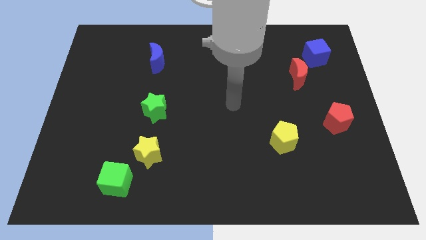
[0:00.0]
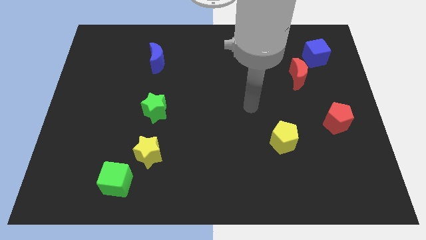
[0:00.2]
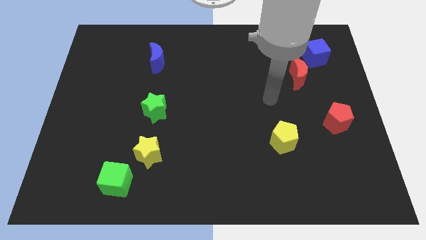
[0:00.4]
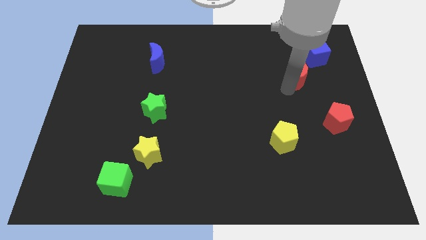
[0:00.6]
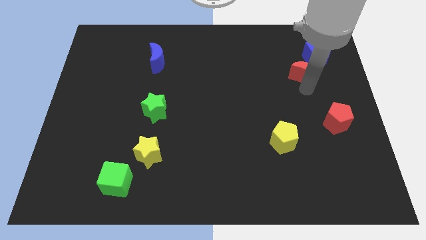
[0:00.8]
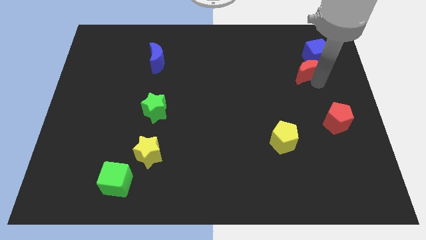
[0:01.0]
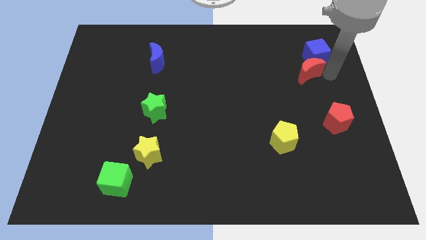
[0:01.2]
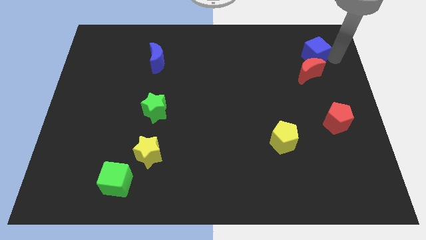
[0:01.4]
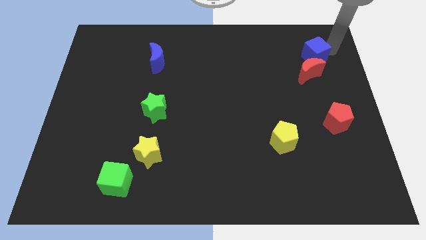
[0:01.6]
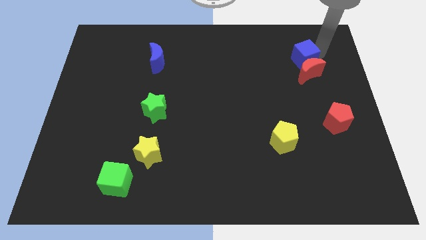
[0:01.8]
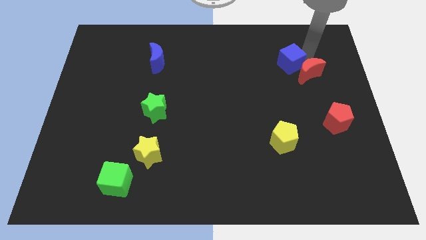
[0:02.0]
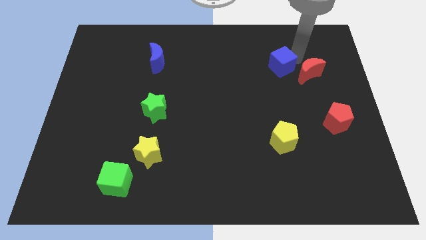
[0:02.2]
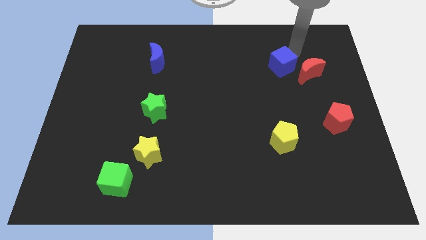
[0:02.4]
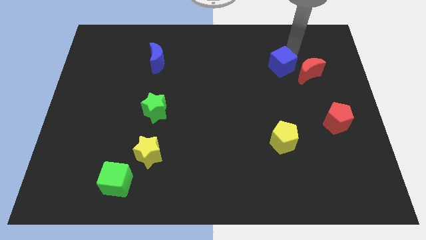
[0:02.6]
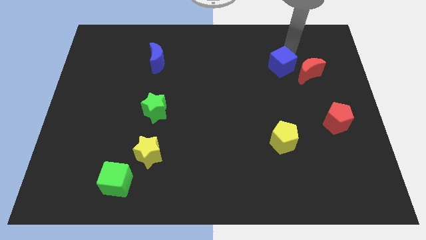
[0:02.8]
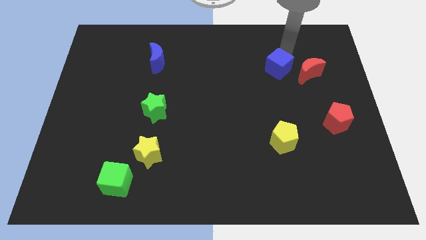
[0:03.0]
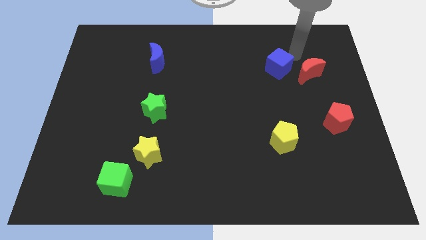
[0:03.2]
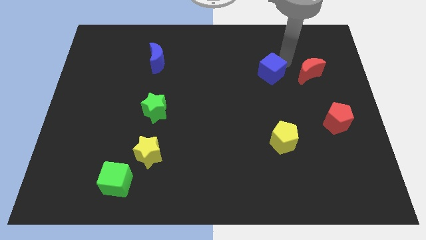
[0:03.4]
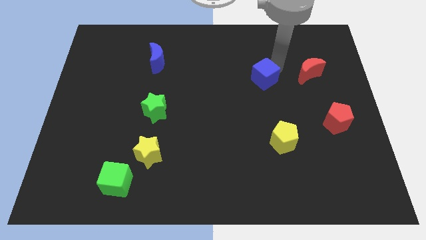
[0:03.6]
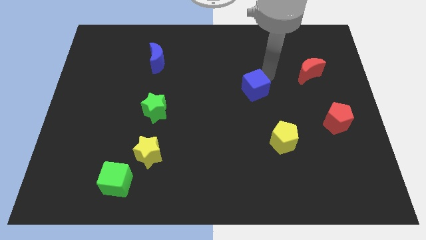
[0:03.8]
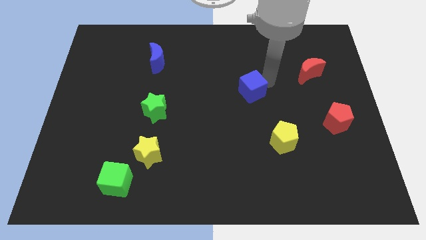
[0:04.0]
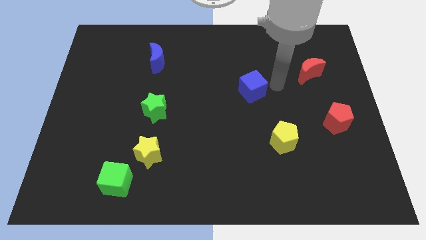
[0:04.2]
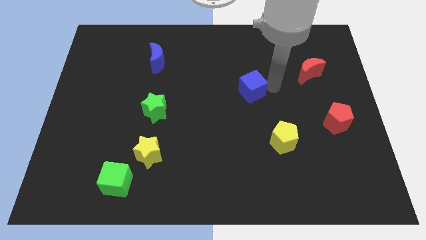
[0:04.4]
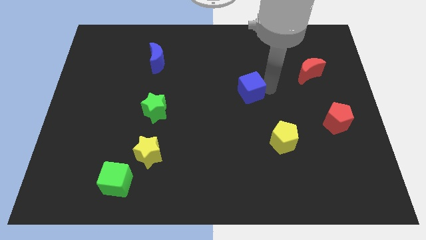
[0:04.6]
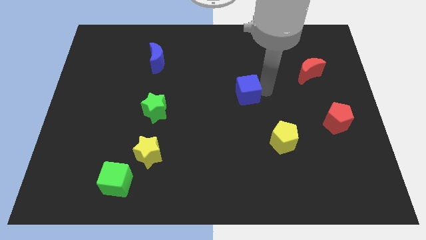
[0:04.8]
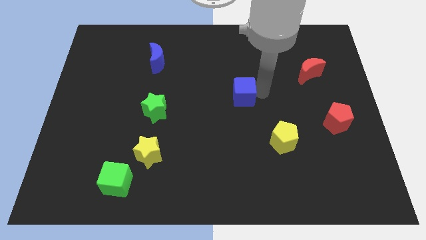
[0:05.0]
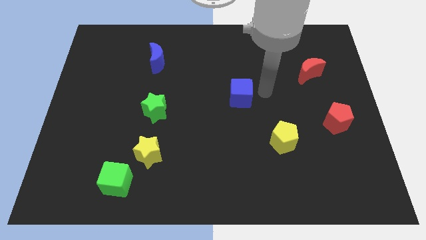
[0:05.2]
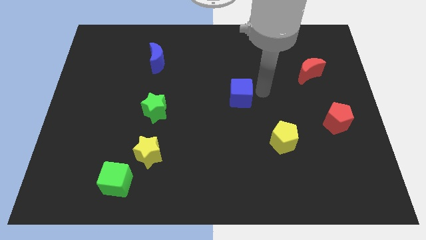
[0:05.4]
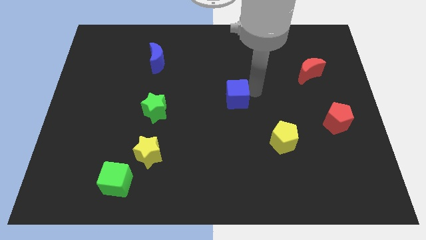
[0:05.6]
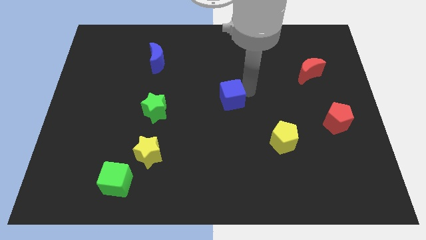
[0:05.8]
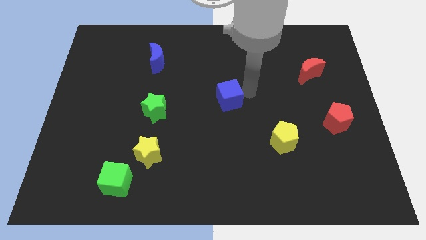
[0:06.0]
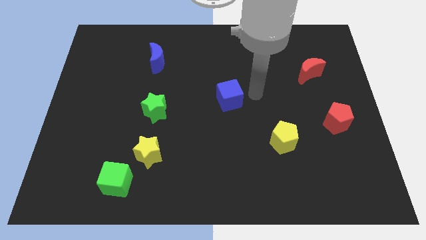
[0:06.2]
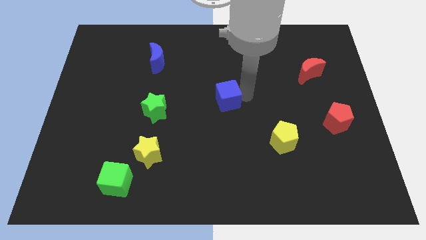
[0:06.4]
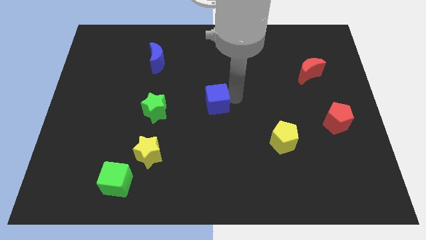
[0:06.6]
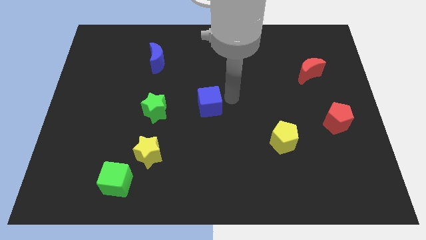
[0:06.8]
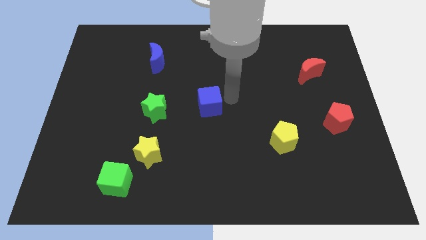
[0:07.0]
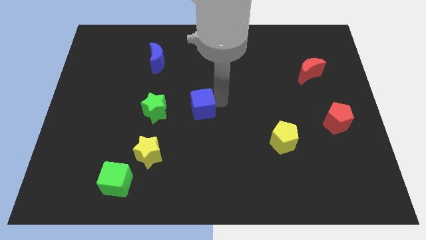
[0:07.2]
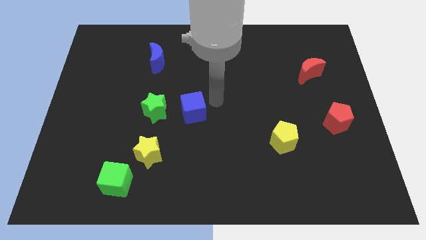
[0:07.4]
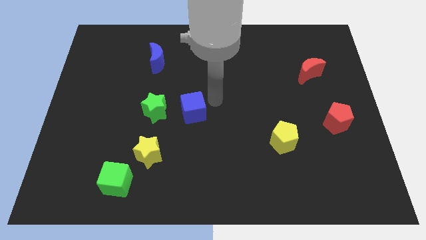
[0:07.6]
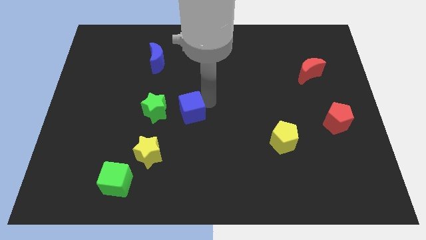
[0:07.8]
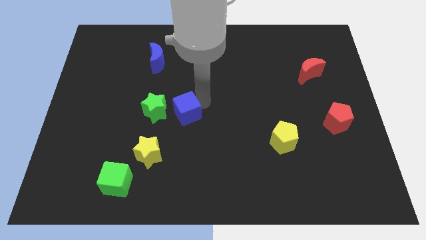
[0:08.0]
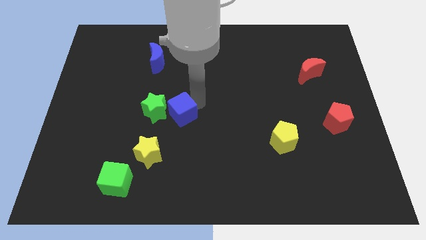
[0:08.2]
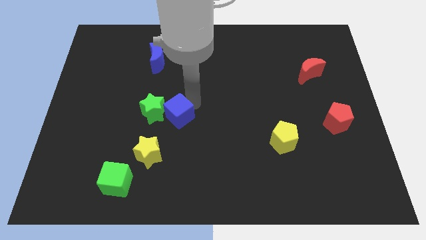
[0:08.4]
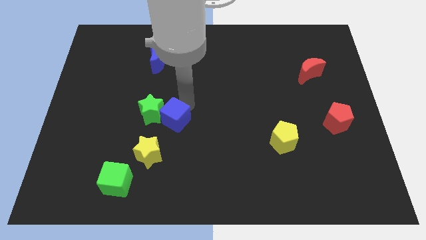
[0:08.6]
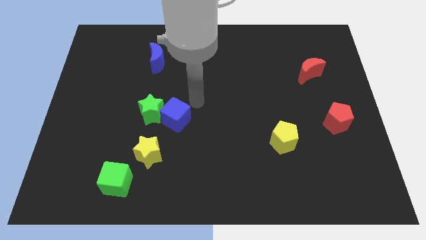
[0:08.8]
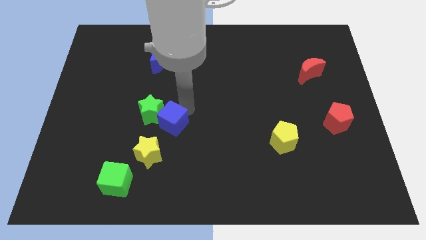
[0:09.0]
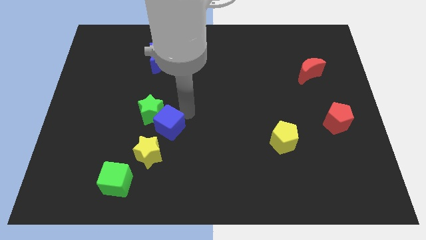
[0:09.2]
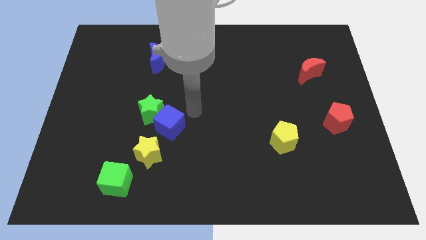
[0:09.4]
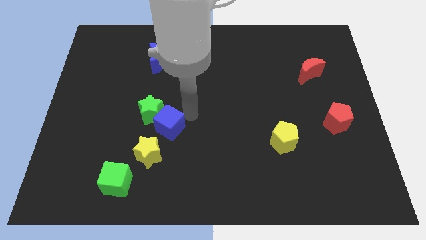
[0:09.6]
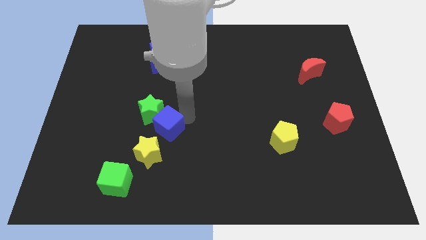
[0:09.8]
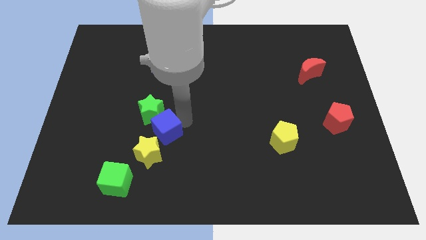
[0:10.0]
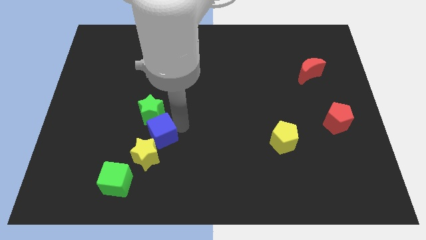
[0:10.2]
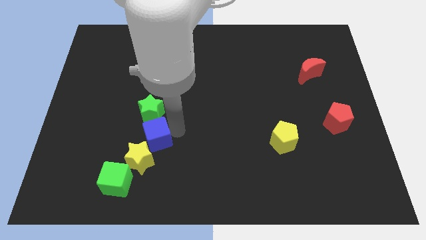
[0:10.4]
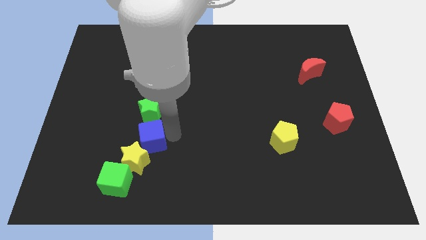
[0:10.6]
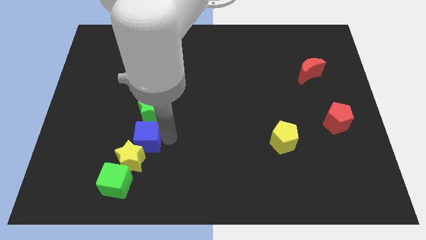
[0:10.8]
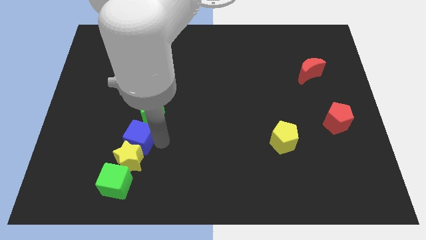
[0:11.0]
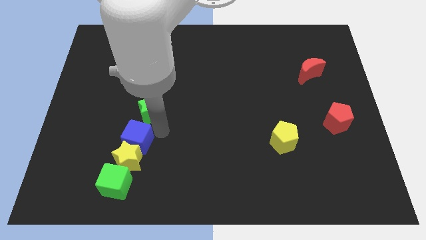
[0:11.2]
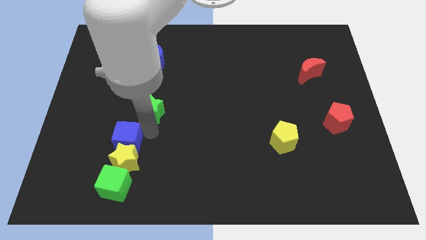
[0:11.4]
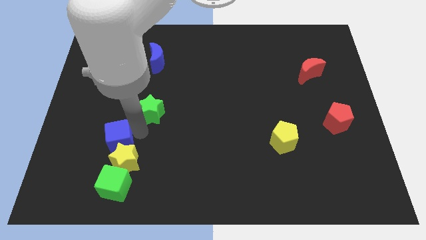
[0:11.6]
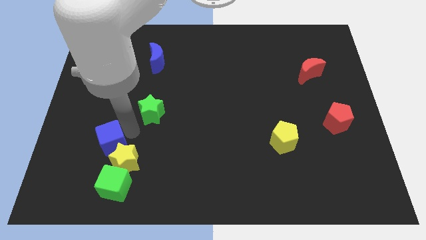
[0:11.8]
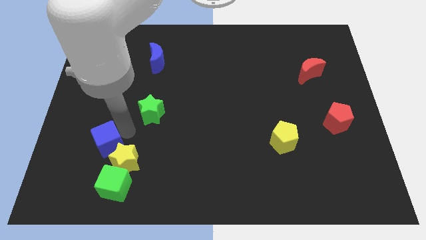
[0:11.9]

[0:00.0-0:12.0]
push the blue cube to the left side of the yellow star
